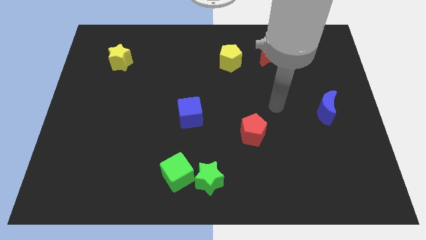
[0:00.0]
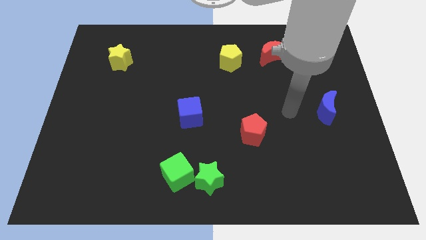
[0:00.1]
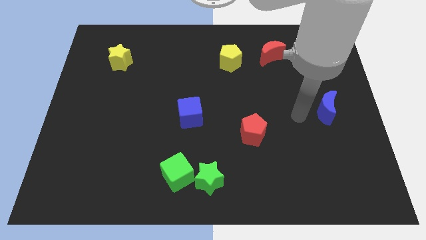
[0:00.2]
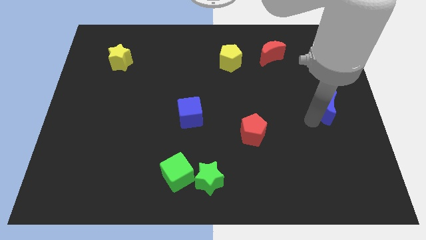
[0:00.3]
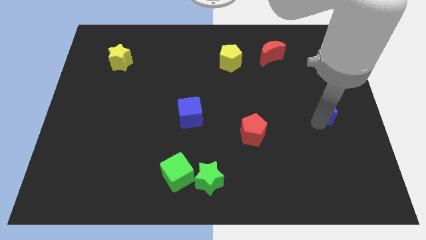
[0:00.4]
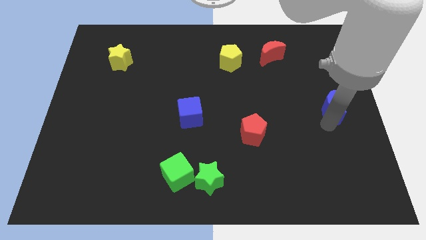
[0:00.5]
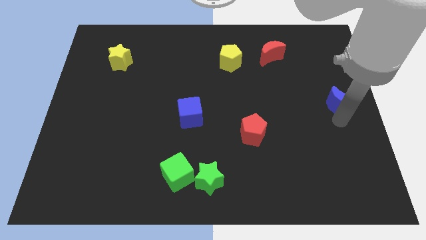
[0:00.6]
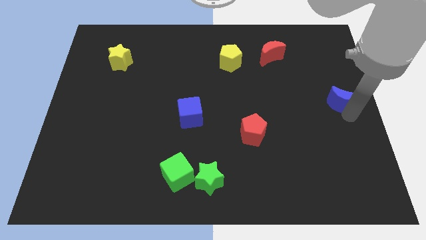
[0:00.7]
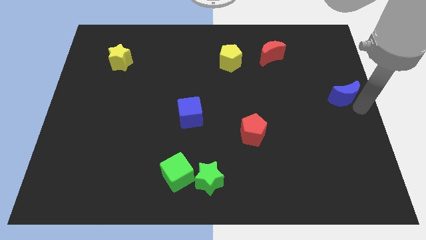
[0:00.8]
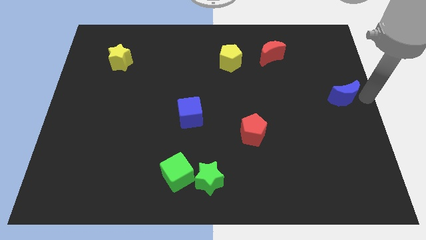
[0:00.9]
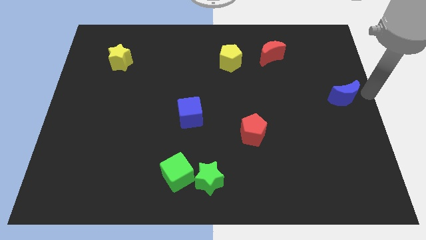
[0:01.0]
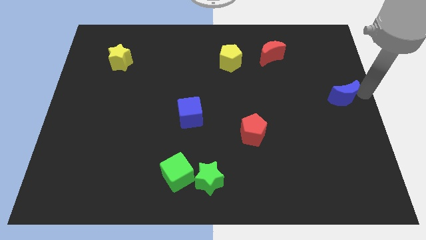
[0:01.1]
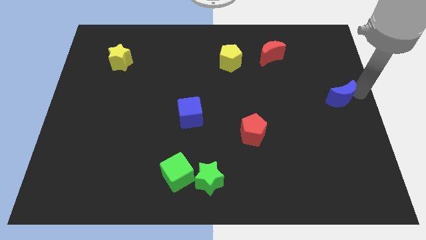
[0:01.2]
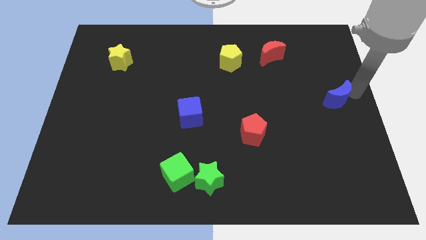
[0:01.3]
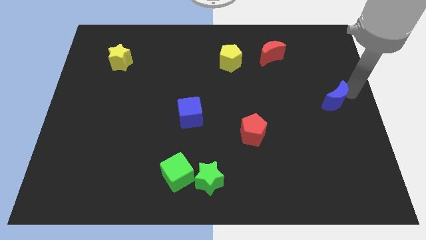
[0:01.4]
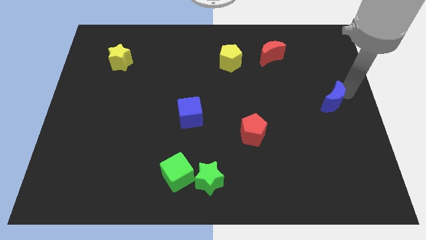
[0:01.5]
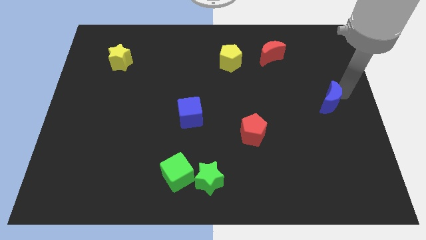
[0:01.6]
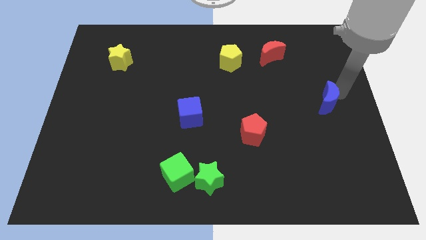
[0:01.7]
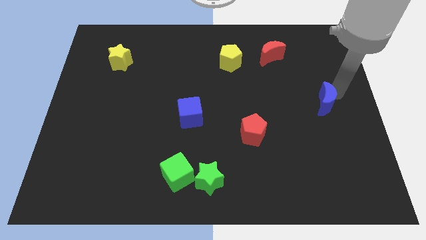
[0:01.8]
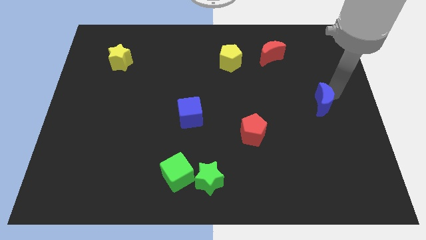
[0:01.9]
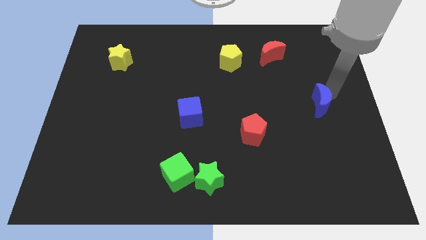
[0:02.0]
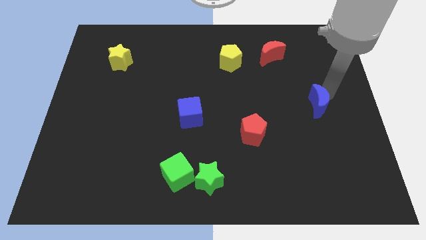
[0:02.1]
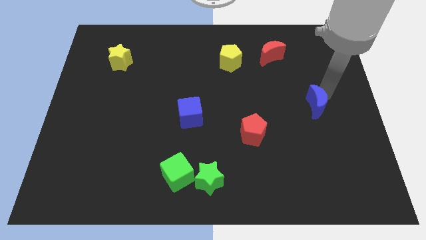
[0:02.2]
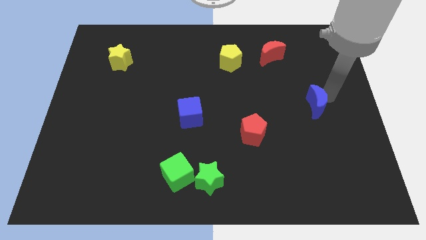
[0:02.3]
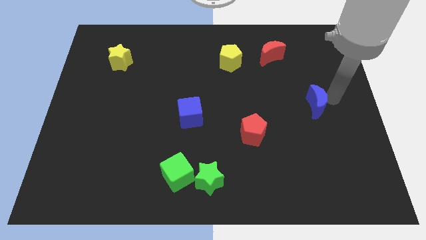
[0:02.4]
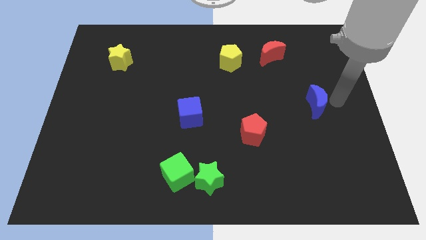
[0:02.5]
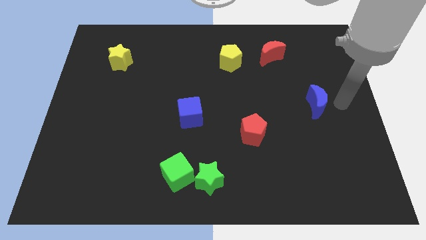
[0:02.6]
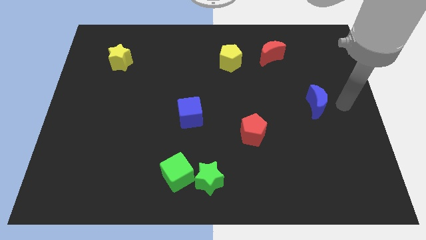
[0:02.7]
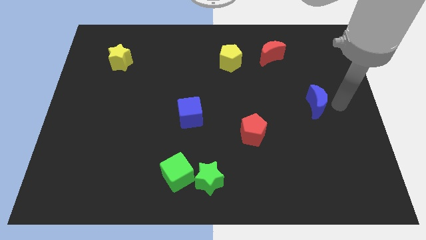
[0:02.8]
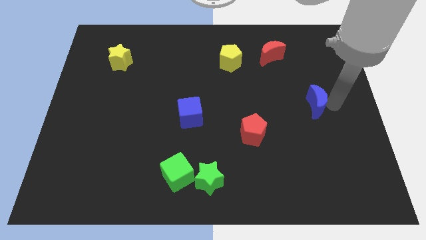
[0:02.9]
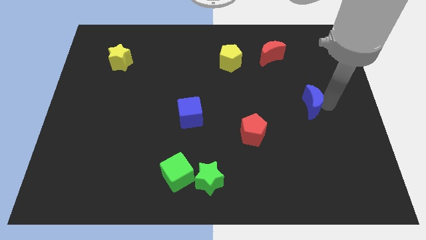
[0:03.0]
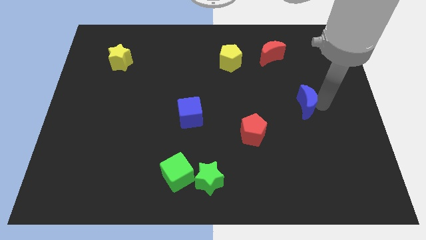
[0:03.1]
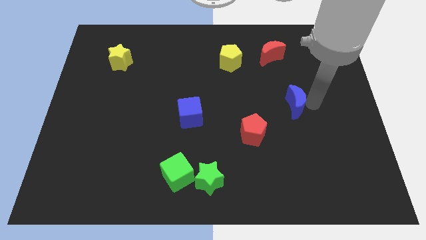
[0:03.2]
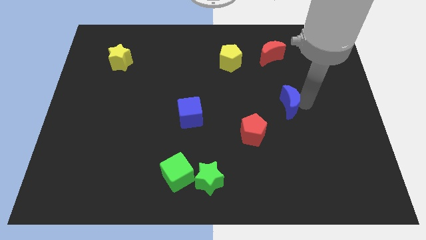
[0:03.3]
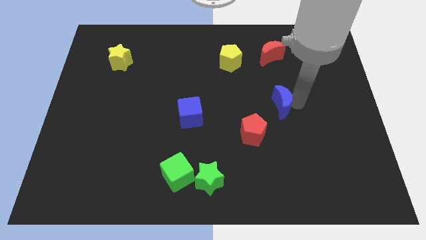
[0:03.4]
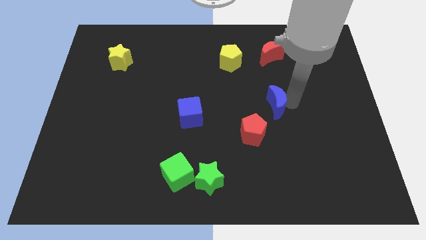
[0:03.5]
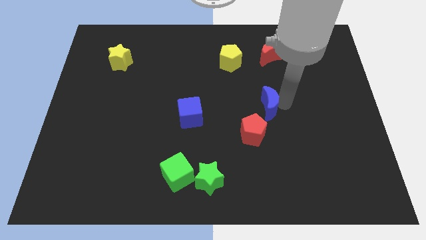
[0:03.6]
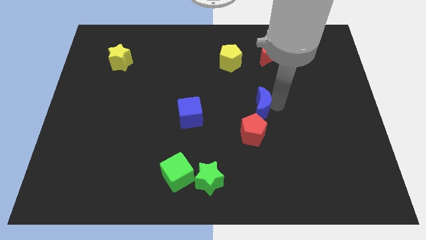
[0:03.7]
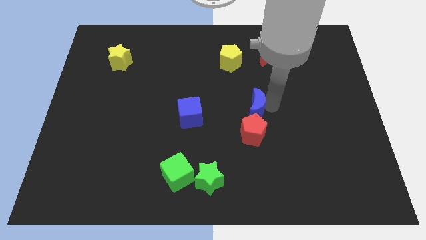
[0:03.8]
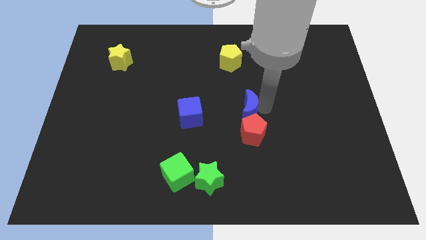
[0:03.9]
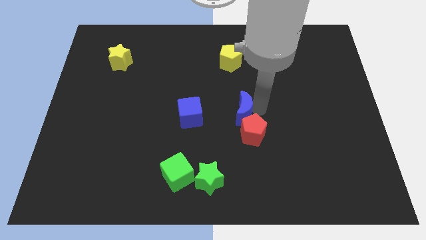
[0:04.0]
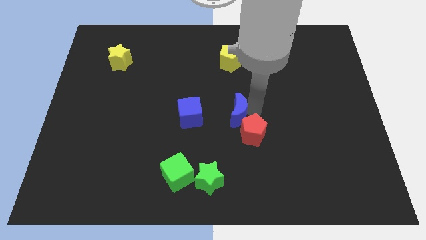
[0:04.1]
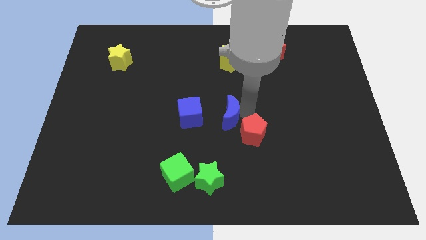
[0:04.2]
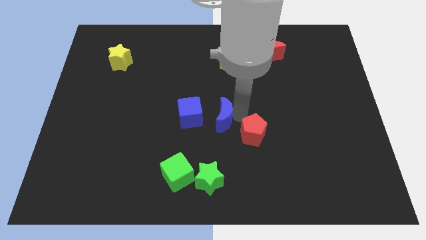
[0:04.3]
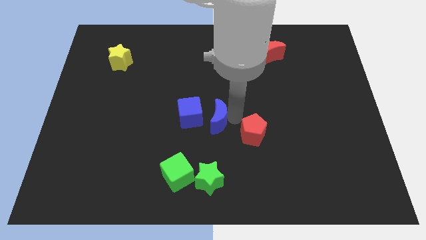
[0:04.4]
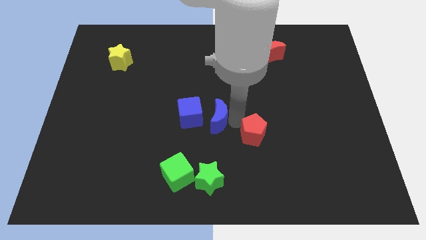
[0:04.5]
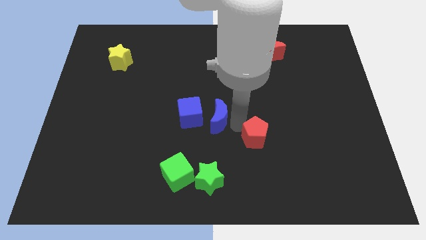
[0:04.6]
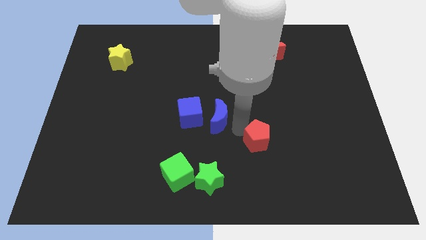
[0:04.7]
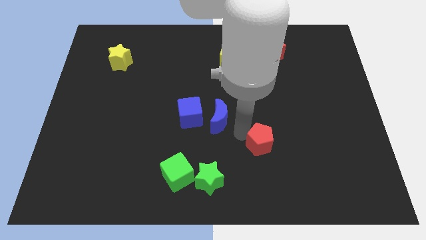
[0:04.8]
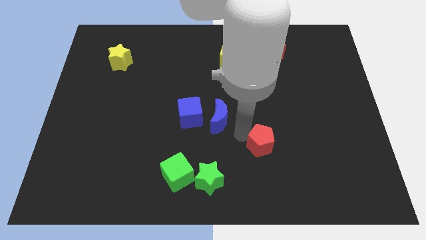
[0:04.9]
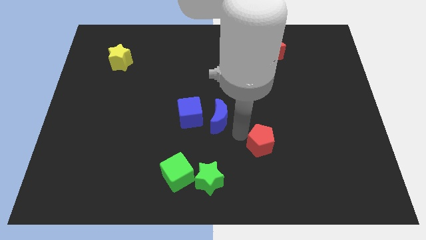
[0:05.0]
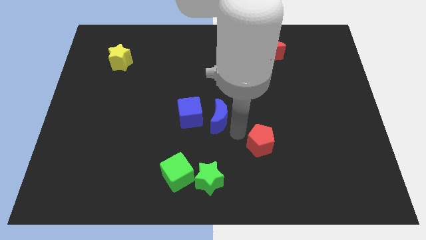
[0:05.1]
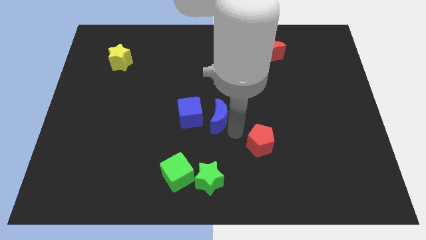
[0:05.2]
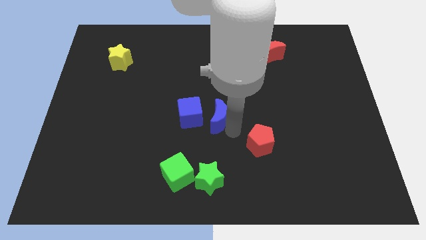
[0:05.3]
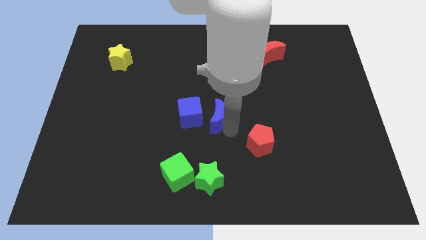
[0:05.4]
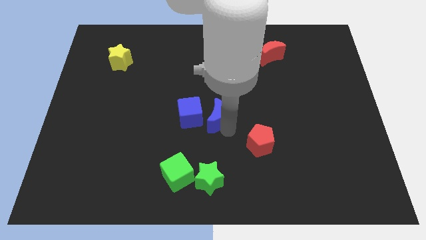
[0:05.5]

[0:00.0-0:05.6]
move the blue moon next to the blue cube

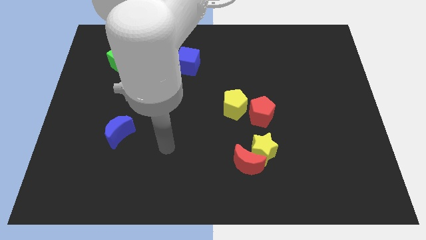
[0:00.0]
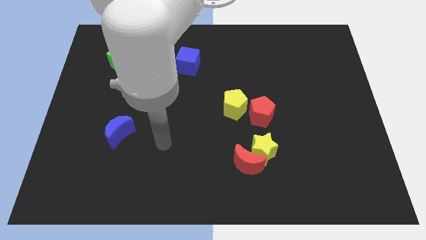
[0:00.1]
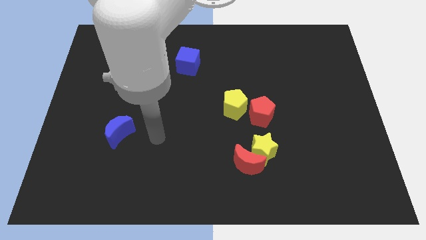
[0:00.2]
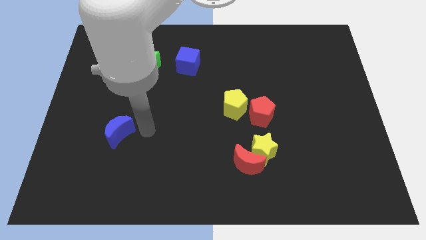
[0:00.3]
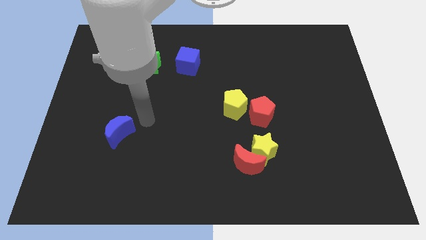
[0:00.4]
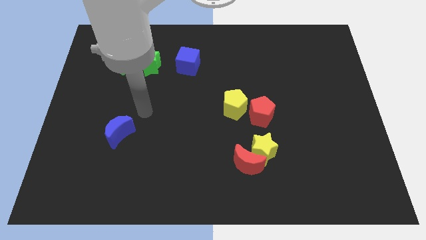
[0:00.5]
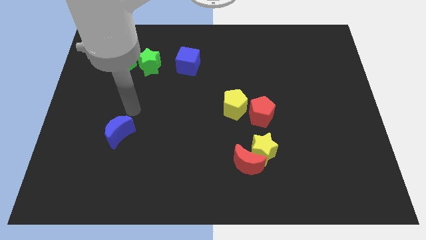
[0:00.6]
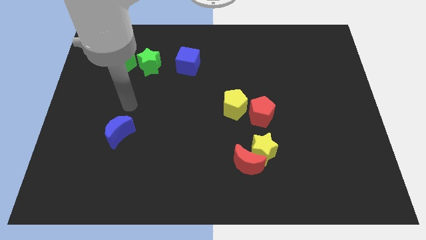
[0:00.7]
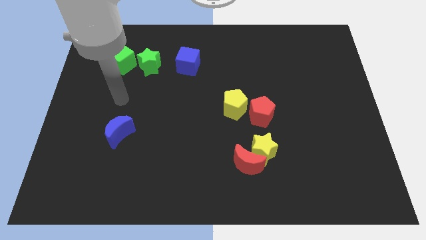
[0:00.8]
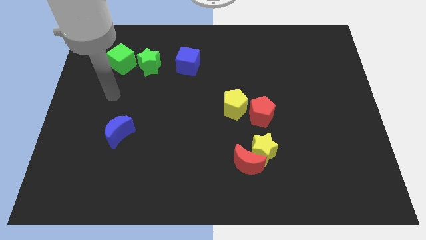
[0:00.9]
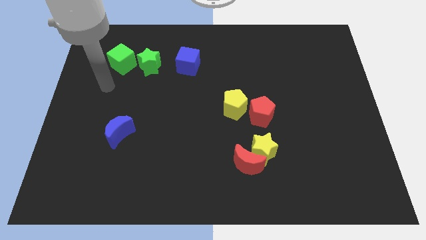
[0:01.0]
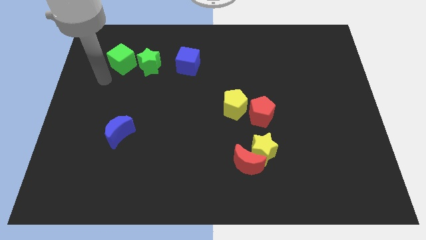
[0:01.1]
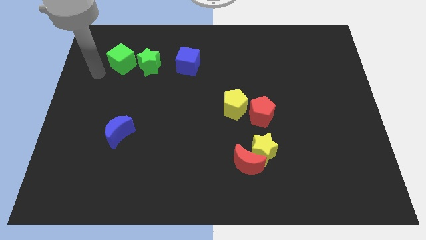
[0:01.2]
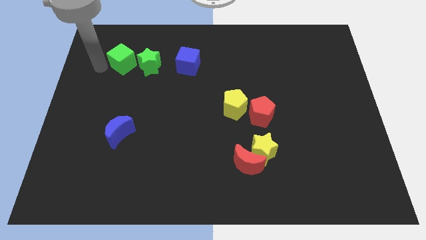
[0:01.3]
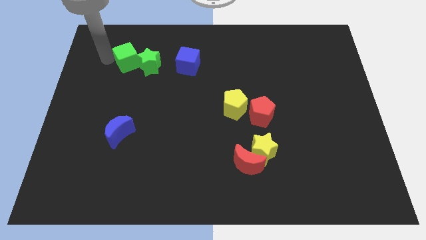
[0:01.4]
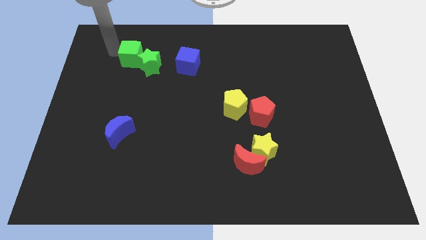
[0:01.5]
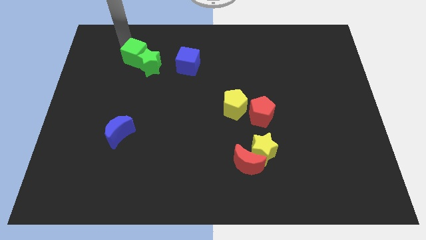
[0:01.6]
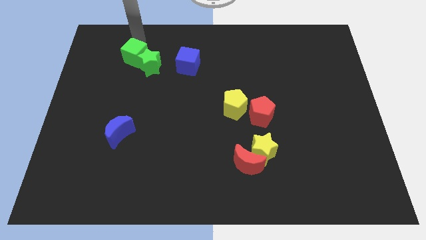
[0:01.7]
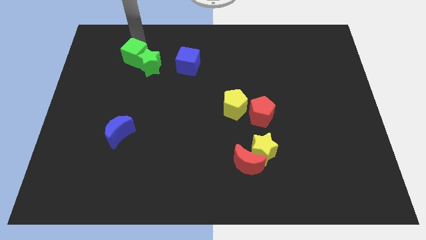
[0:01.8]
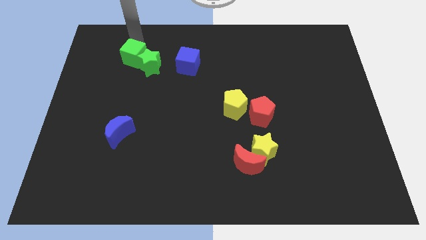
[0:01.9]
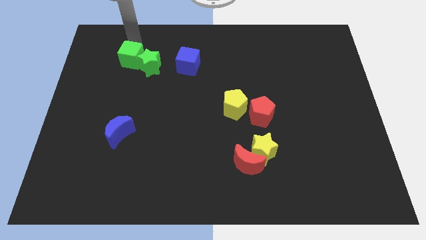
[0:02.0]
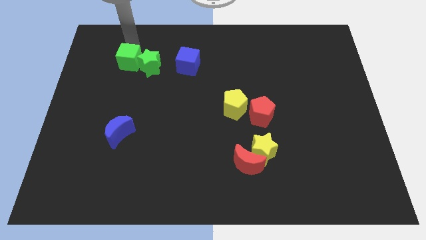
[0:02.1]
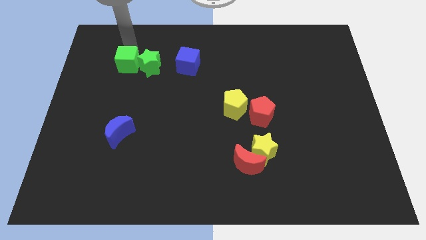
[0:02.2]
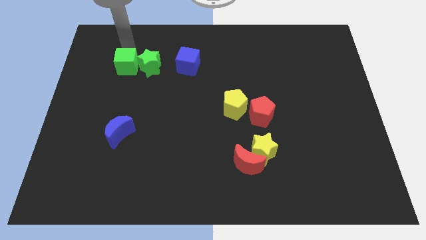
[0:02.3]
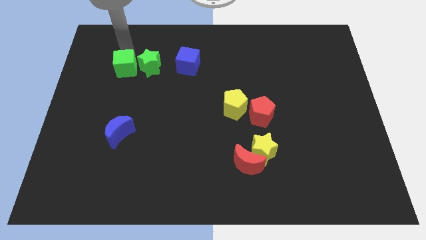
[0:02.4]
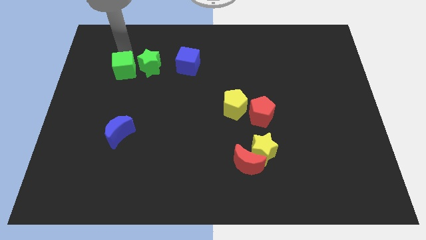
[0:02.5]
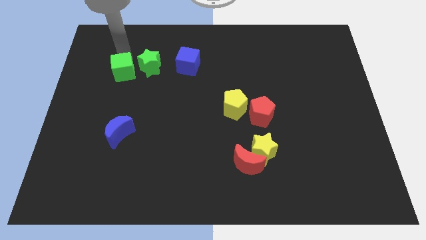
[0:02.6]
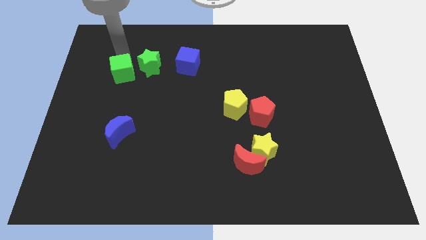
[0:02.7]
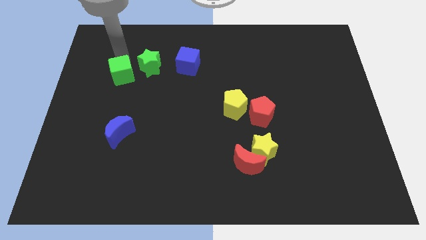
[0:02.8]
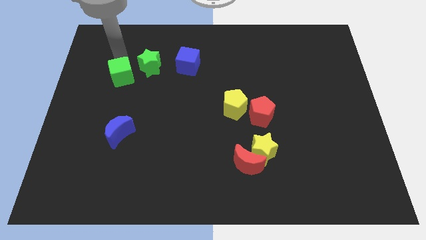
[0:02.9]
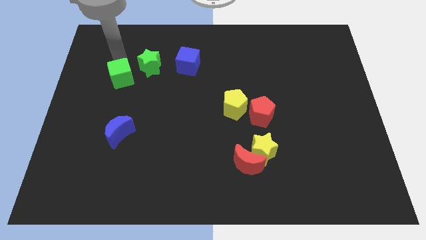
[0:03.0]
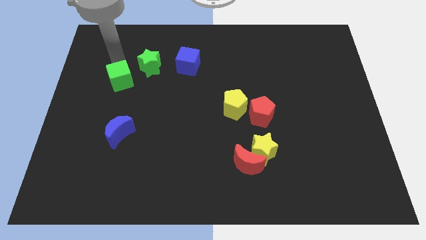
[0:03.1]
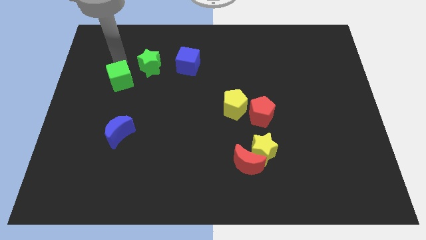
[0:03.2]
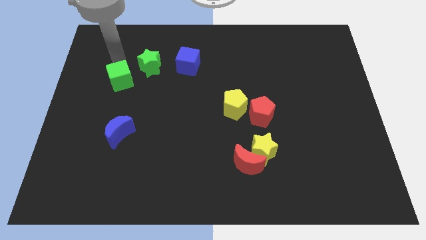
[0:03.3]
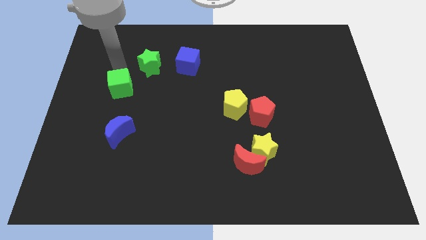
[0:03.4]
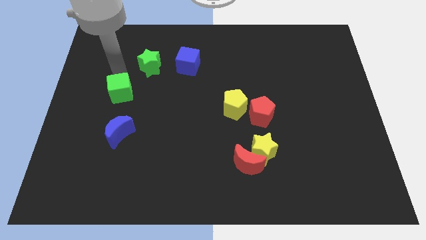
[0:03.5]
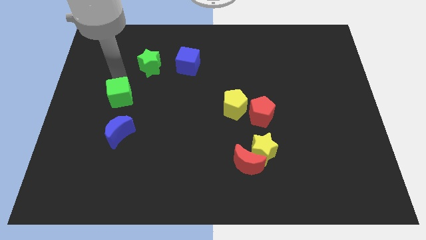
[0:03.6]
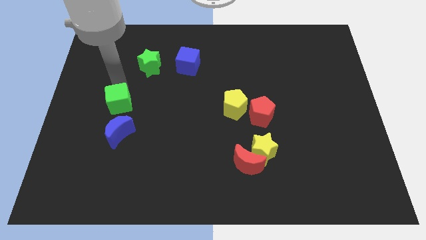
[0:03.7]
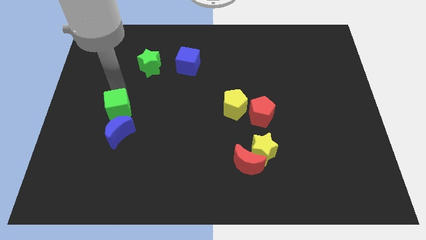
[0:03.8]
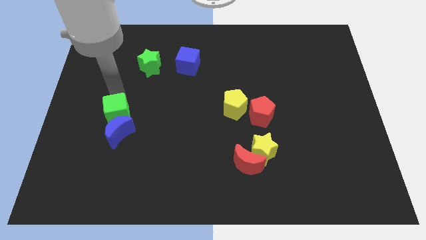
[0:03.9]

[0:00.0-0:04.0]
slide the green cube towards the blue moon
